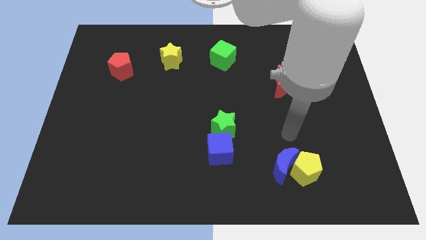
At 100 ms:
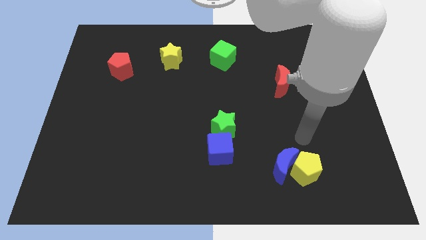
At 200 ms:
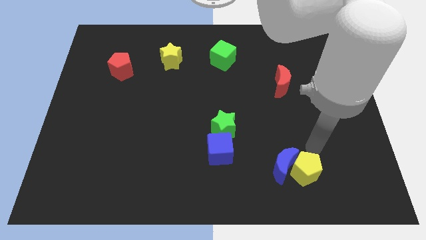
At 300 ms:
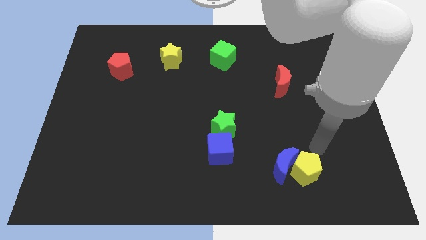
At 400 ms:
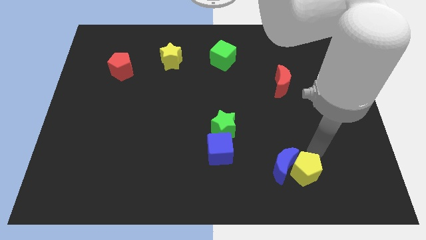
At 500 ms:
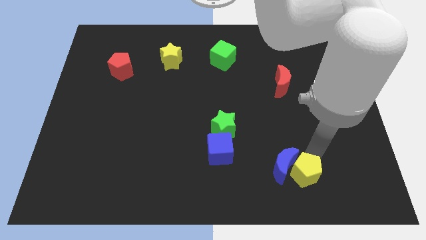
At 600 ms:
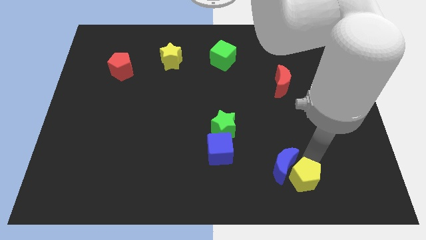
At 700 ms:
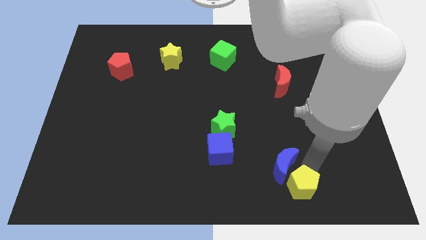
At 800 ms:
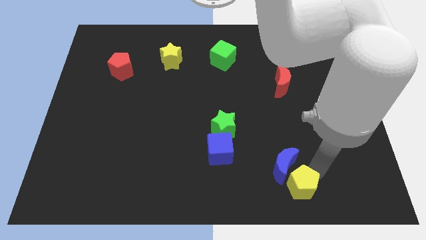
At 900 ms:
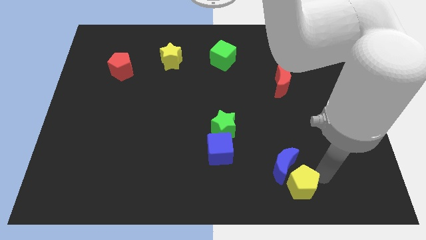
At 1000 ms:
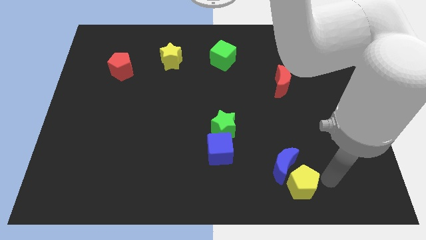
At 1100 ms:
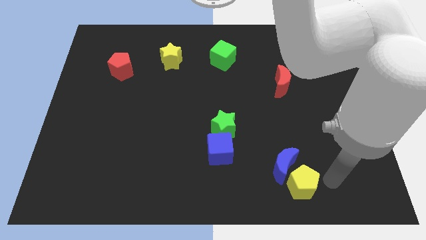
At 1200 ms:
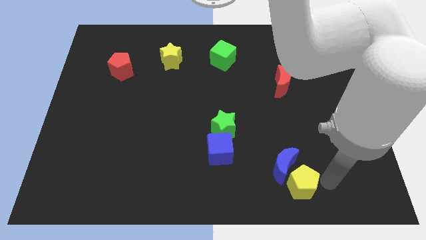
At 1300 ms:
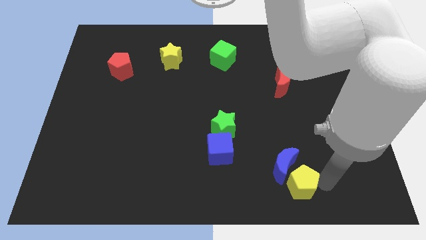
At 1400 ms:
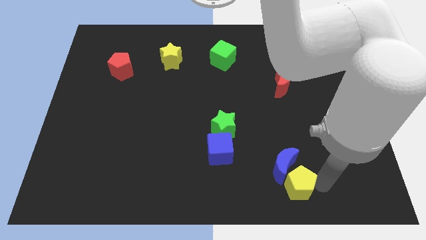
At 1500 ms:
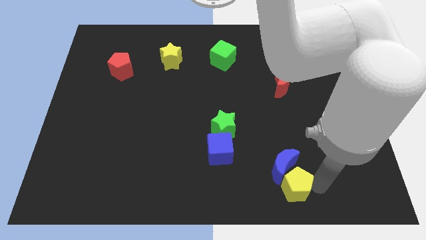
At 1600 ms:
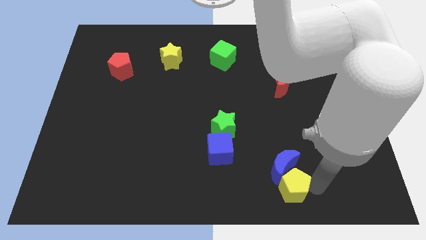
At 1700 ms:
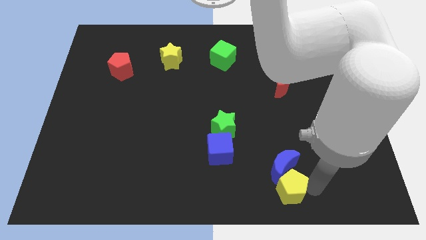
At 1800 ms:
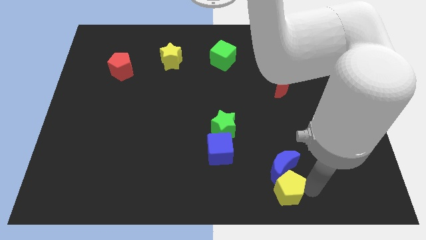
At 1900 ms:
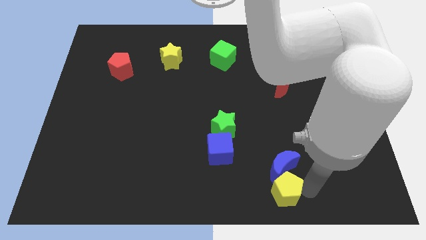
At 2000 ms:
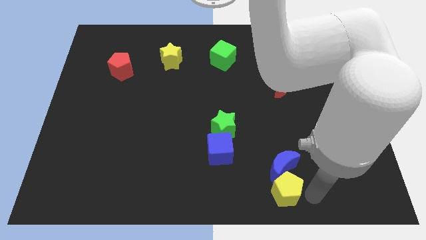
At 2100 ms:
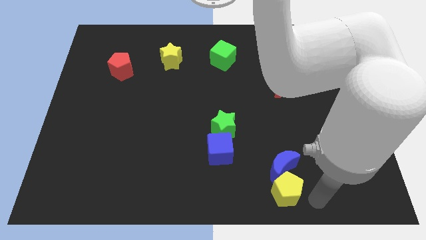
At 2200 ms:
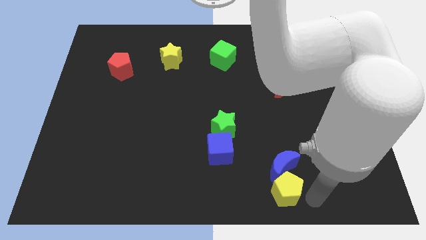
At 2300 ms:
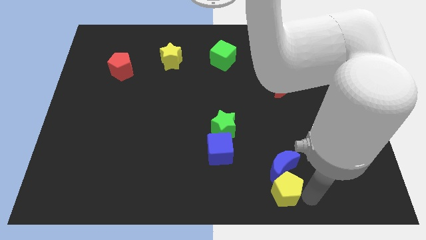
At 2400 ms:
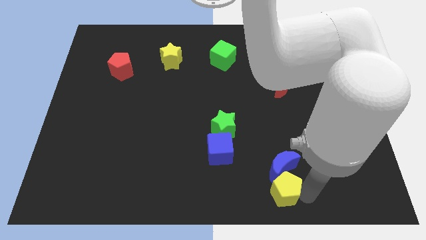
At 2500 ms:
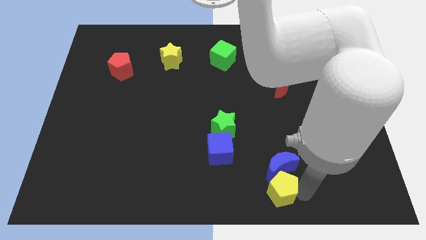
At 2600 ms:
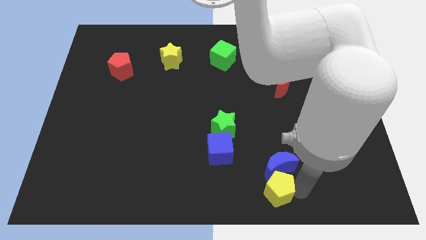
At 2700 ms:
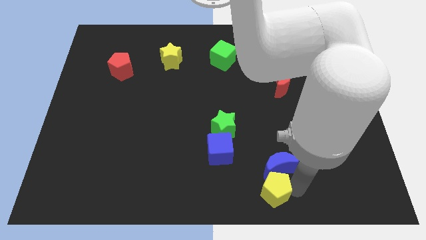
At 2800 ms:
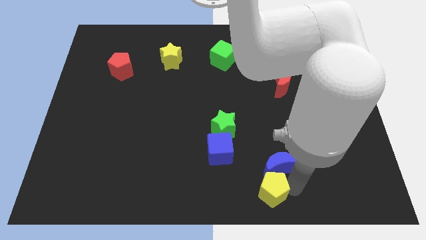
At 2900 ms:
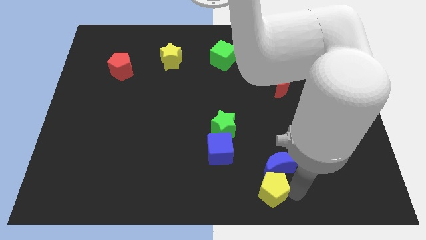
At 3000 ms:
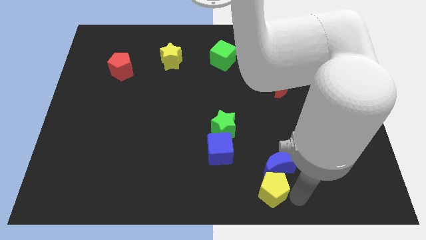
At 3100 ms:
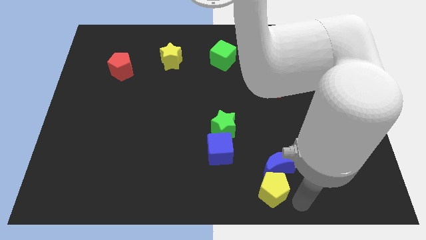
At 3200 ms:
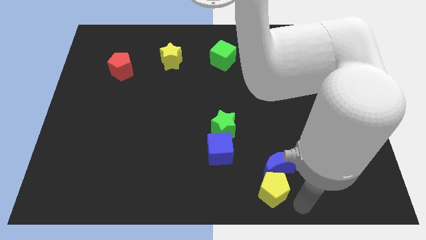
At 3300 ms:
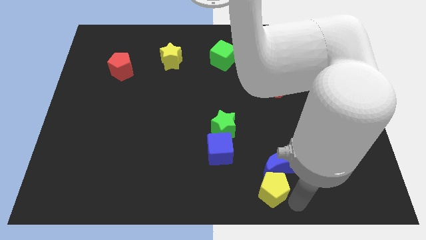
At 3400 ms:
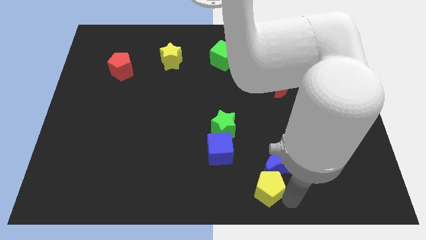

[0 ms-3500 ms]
push the yellow pentagon to the left a bit

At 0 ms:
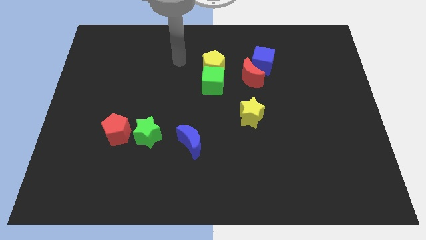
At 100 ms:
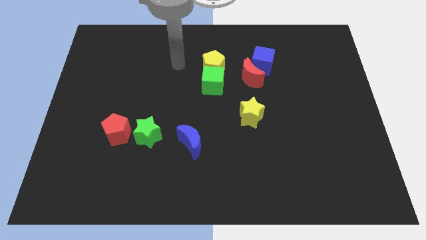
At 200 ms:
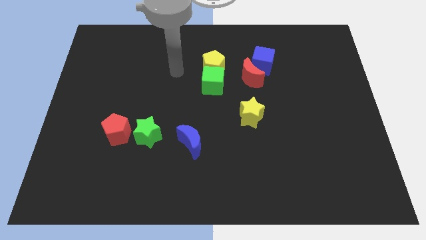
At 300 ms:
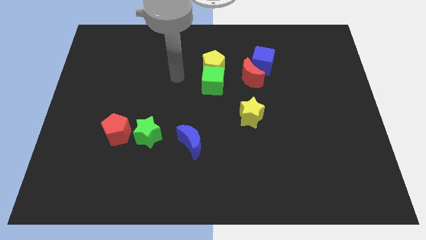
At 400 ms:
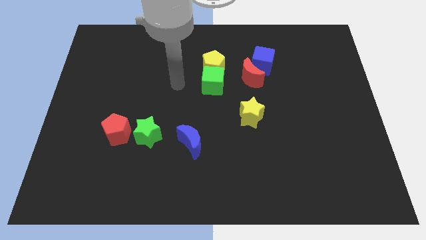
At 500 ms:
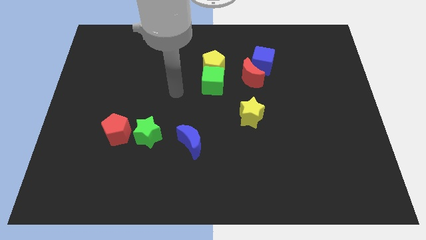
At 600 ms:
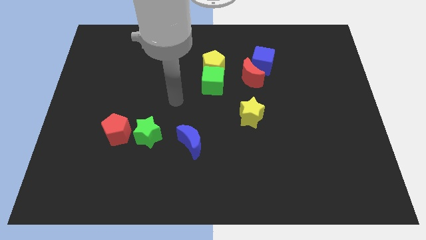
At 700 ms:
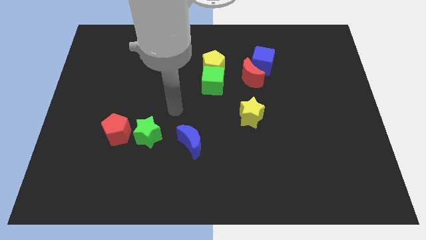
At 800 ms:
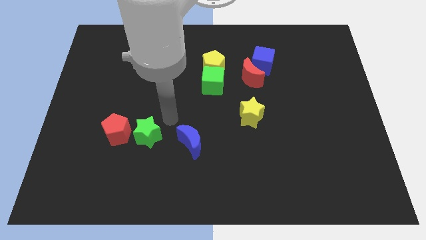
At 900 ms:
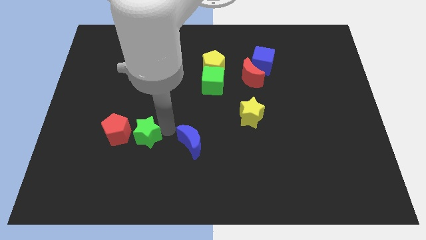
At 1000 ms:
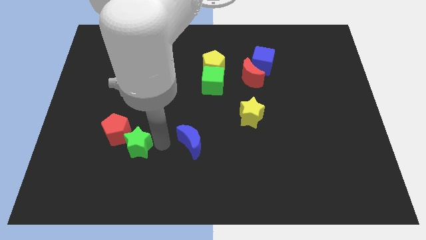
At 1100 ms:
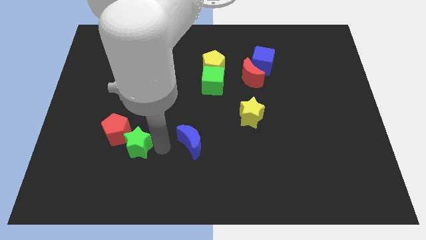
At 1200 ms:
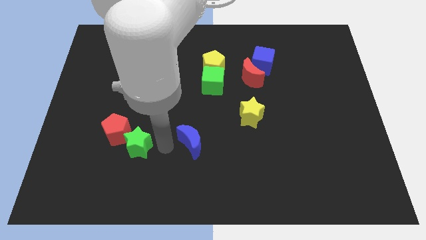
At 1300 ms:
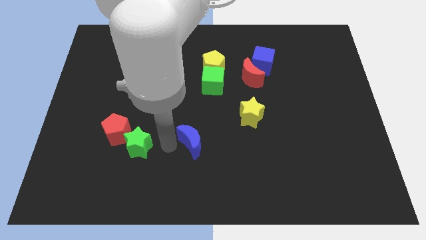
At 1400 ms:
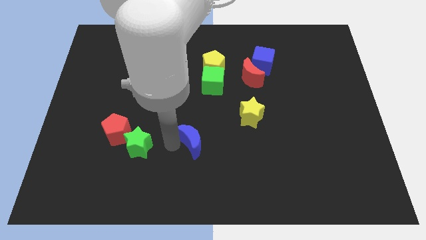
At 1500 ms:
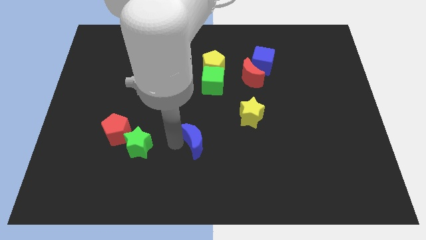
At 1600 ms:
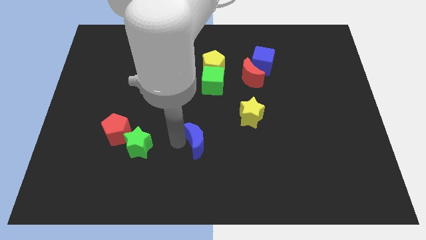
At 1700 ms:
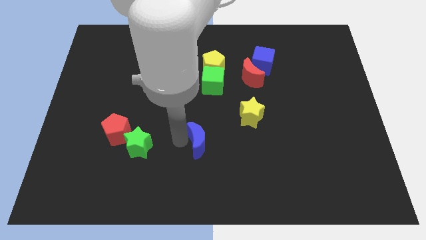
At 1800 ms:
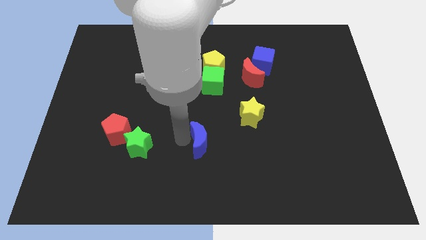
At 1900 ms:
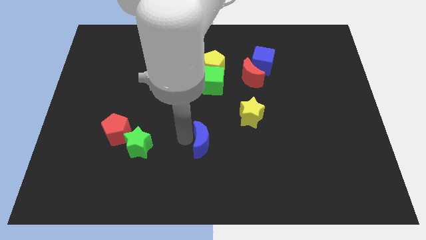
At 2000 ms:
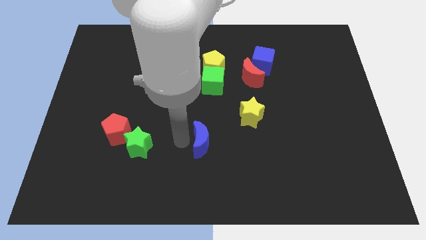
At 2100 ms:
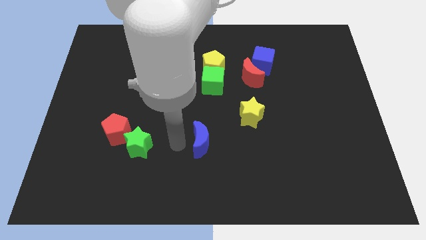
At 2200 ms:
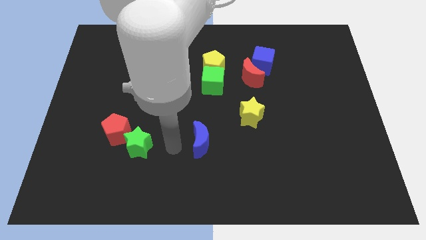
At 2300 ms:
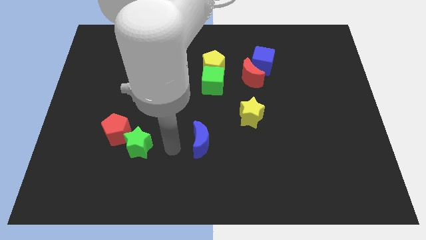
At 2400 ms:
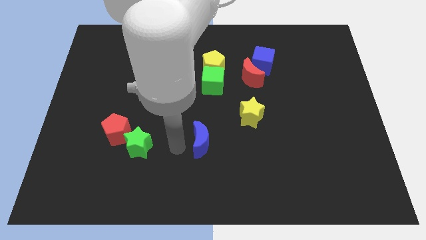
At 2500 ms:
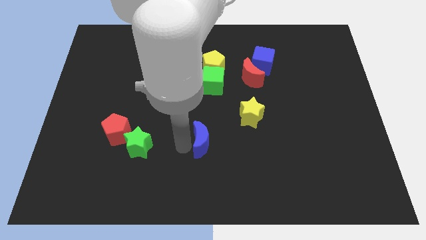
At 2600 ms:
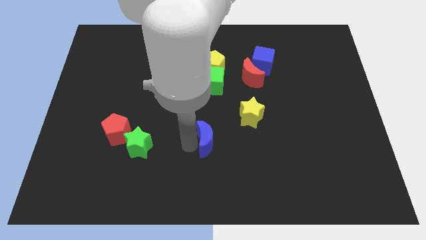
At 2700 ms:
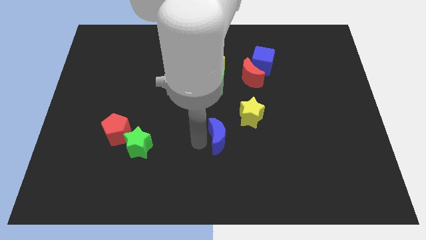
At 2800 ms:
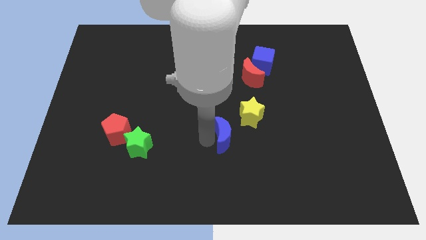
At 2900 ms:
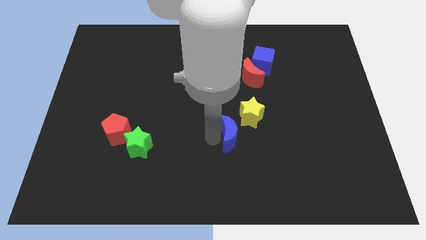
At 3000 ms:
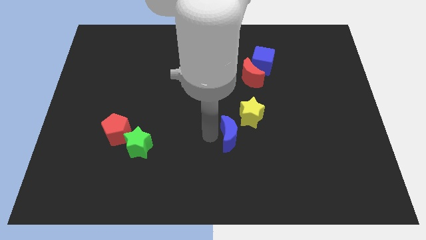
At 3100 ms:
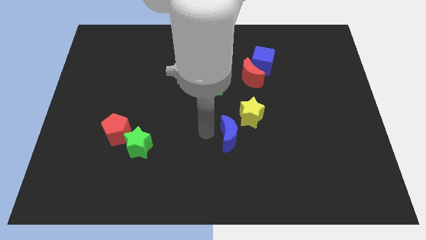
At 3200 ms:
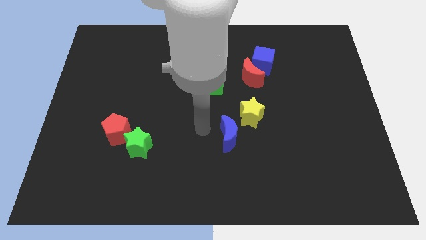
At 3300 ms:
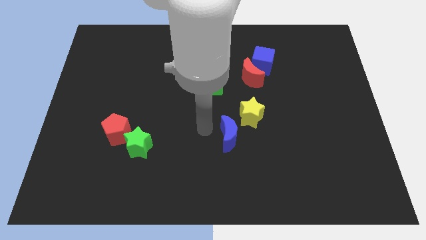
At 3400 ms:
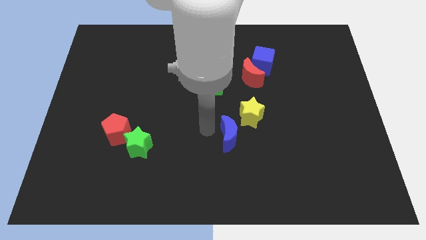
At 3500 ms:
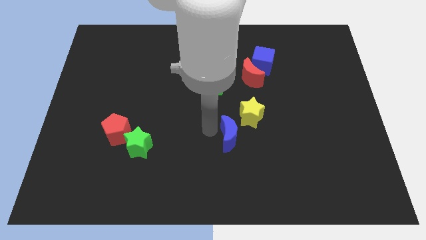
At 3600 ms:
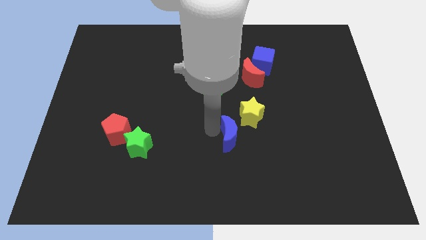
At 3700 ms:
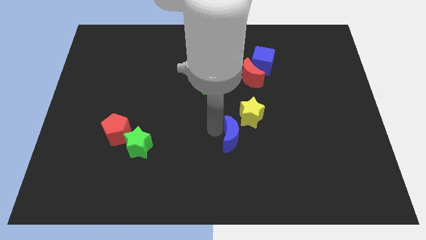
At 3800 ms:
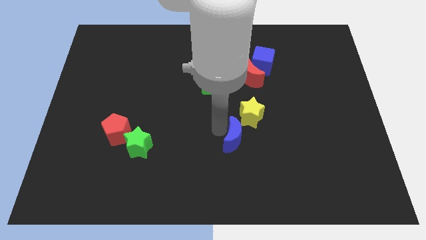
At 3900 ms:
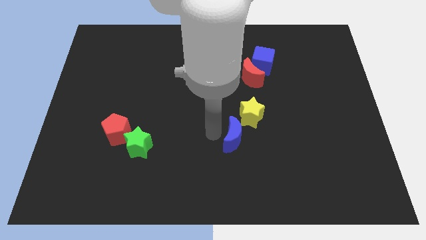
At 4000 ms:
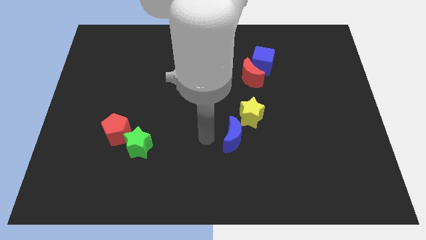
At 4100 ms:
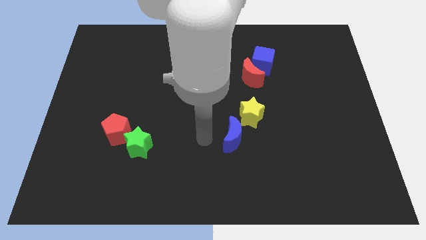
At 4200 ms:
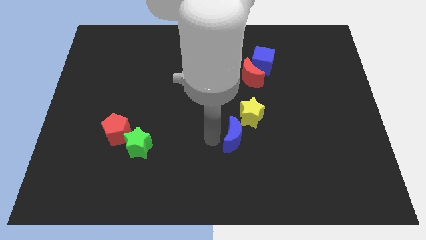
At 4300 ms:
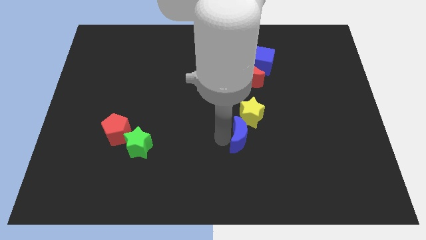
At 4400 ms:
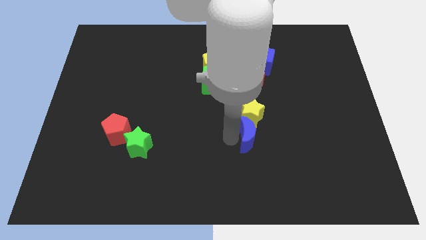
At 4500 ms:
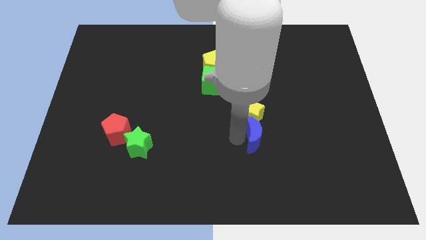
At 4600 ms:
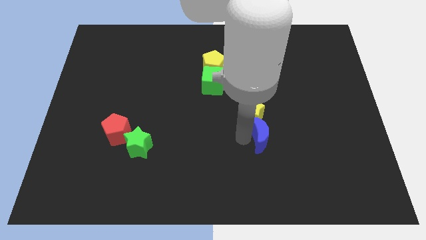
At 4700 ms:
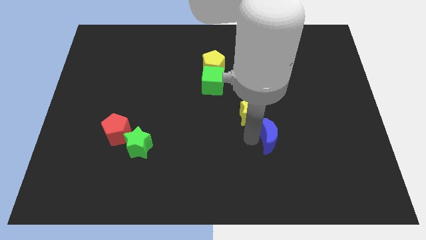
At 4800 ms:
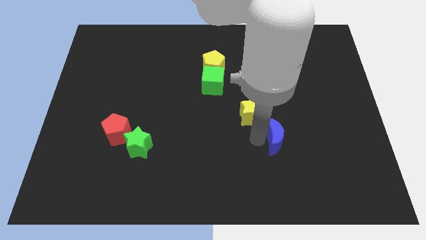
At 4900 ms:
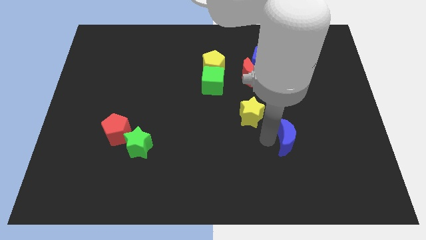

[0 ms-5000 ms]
move the blue moon to the right
